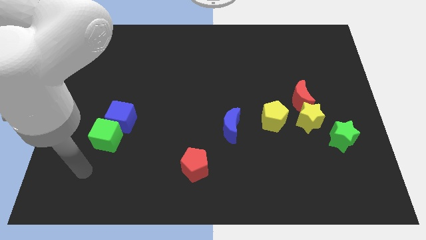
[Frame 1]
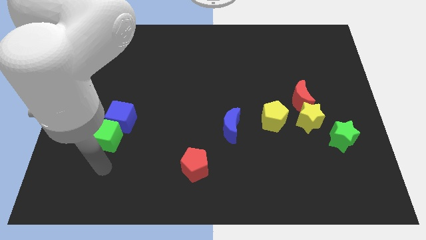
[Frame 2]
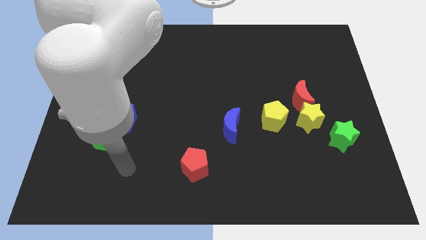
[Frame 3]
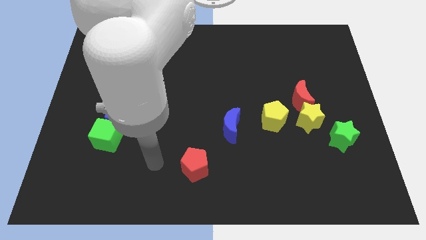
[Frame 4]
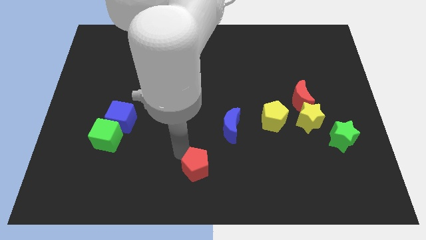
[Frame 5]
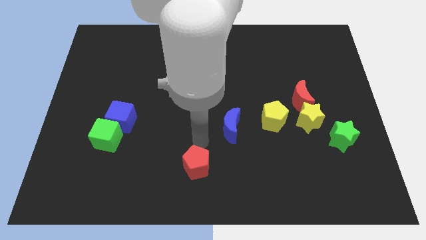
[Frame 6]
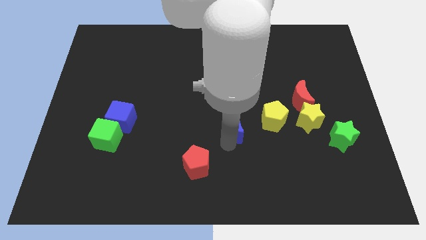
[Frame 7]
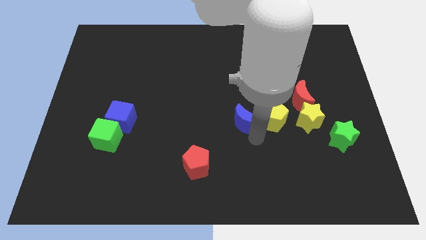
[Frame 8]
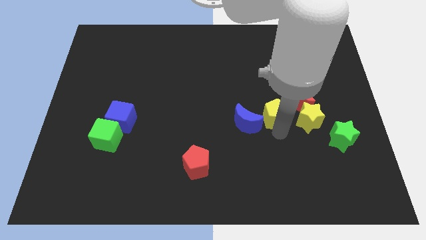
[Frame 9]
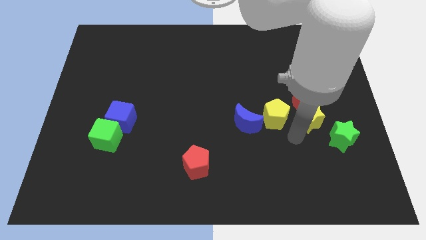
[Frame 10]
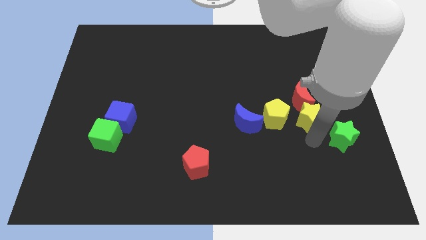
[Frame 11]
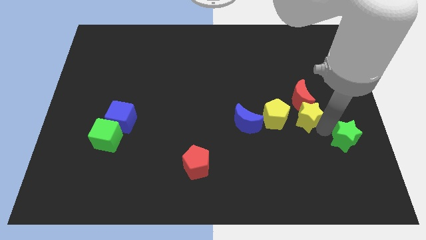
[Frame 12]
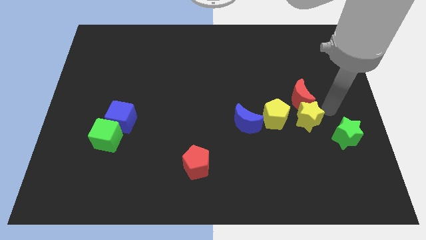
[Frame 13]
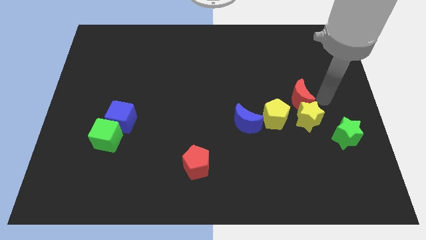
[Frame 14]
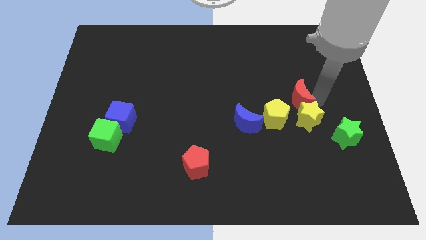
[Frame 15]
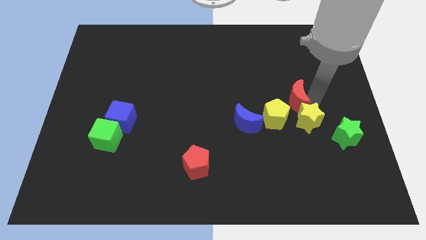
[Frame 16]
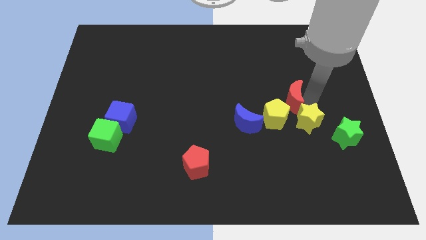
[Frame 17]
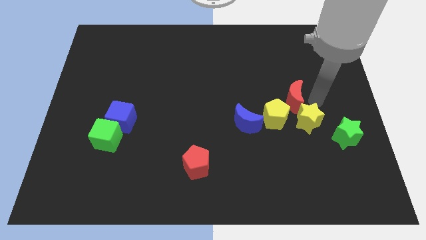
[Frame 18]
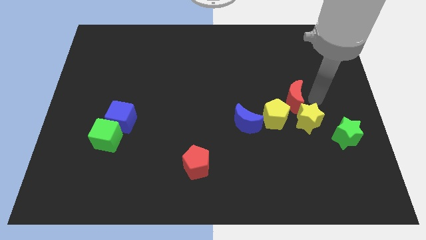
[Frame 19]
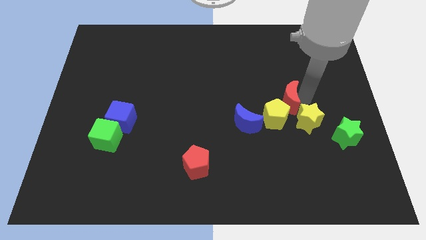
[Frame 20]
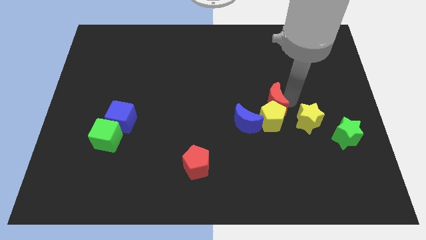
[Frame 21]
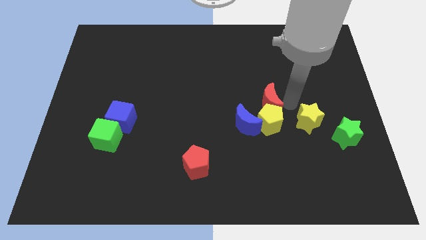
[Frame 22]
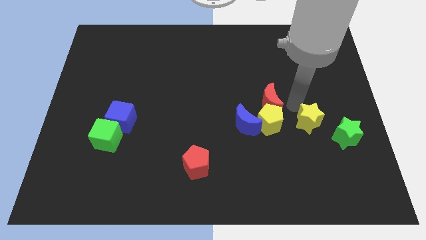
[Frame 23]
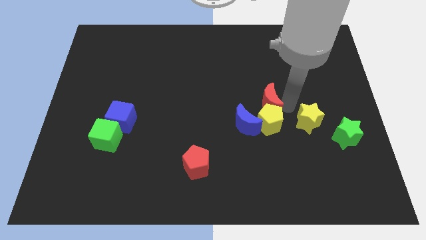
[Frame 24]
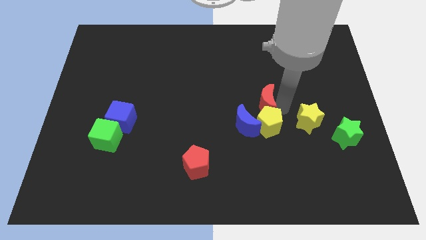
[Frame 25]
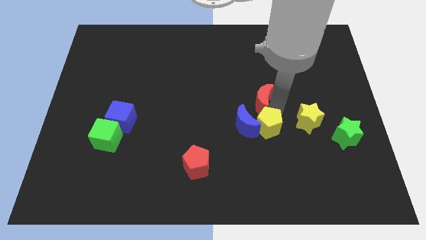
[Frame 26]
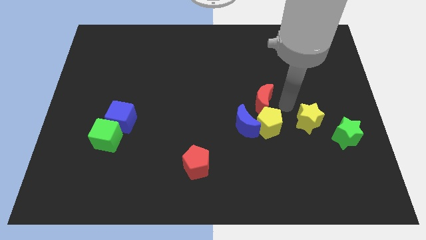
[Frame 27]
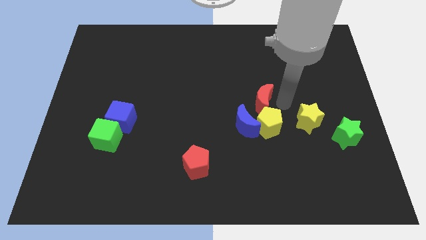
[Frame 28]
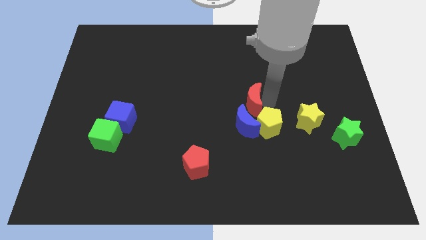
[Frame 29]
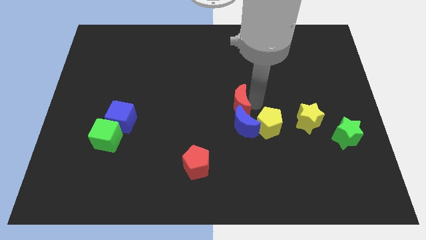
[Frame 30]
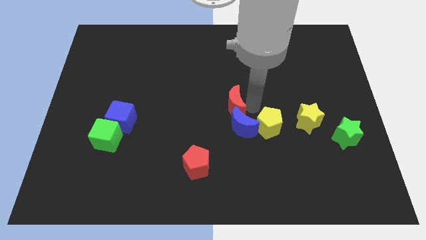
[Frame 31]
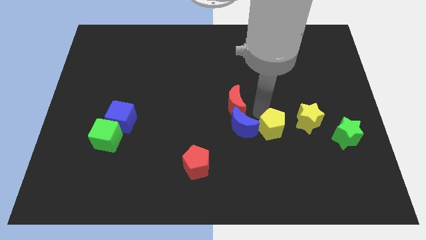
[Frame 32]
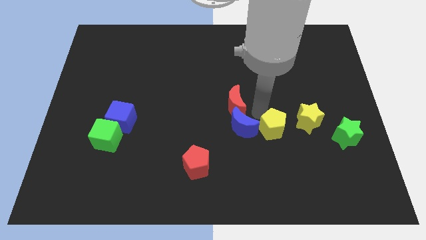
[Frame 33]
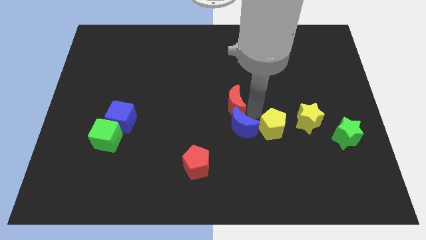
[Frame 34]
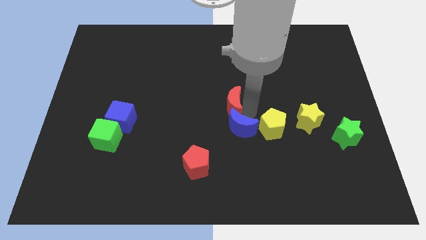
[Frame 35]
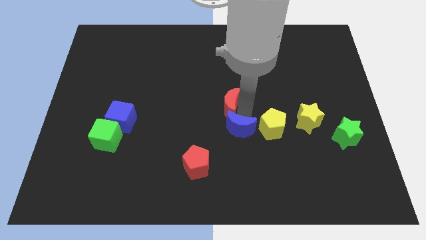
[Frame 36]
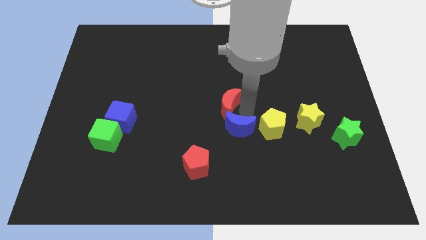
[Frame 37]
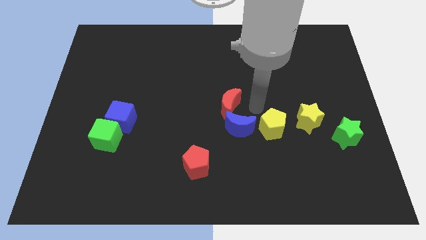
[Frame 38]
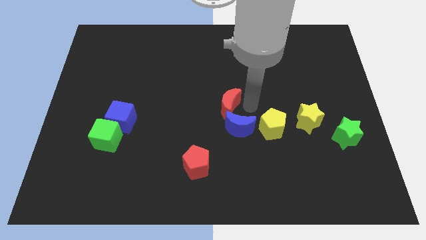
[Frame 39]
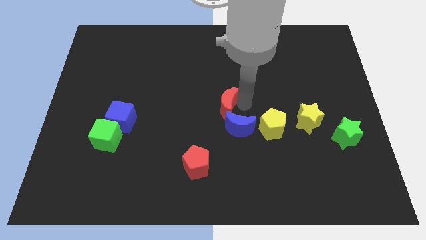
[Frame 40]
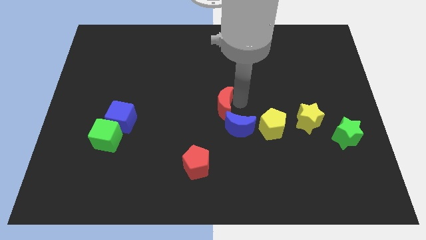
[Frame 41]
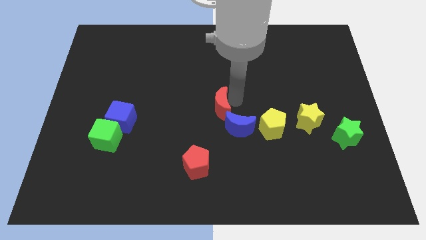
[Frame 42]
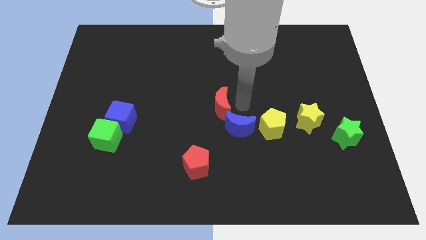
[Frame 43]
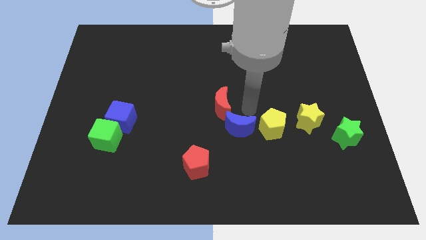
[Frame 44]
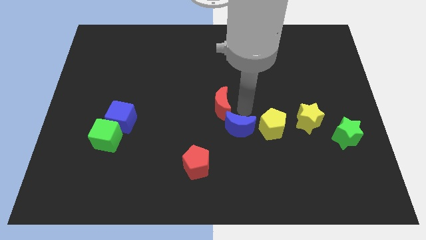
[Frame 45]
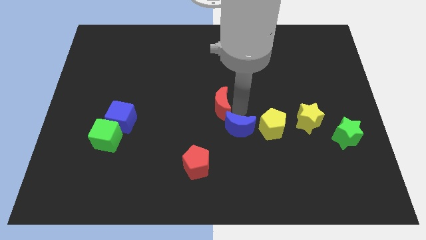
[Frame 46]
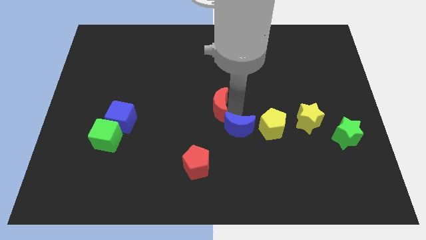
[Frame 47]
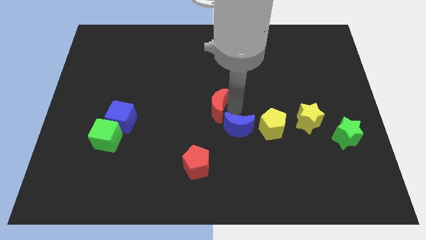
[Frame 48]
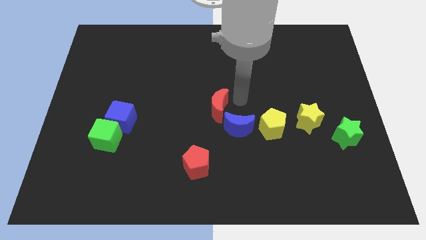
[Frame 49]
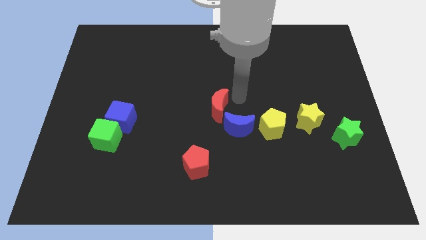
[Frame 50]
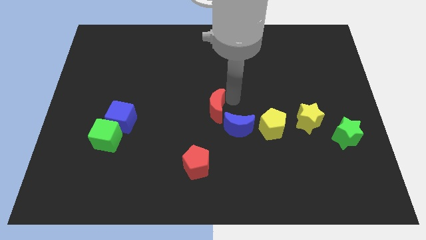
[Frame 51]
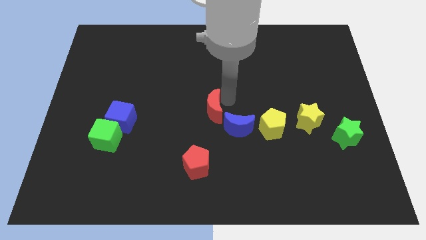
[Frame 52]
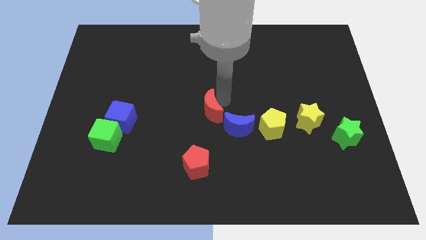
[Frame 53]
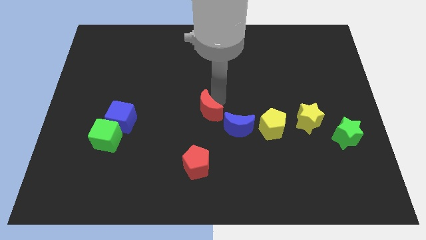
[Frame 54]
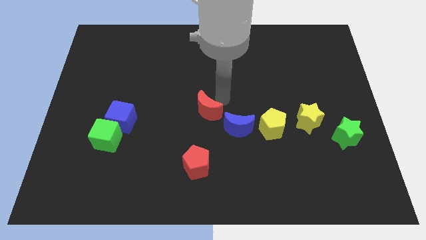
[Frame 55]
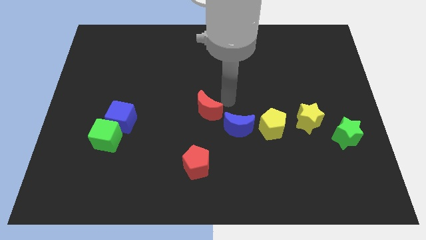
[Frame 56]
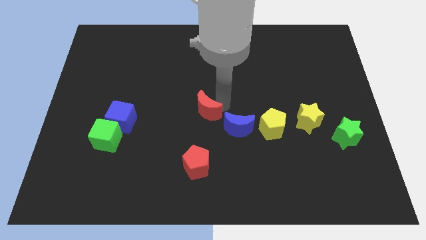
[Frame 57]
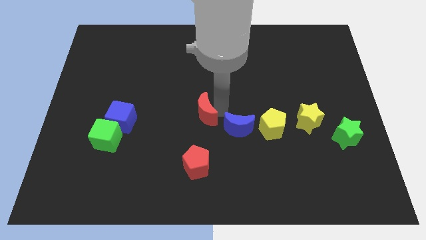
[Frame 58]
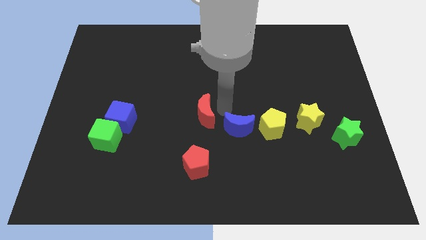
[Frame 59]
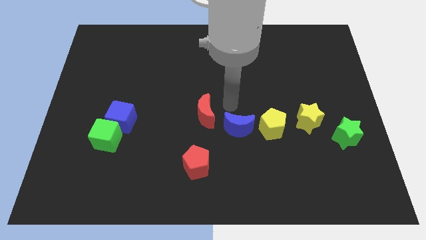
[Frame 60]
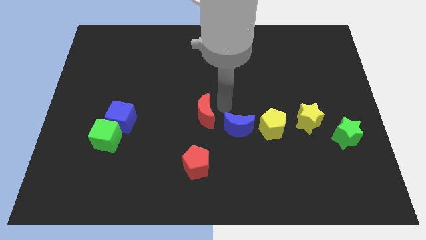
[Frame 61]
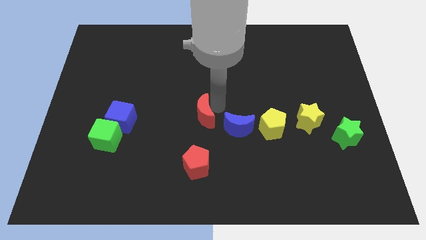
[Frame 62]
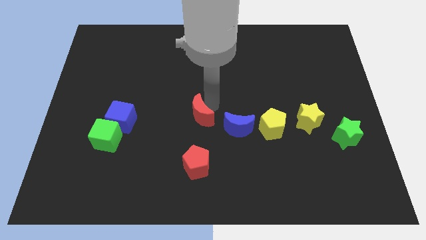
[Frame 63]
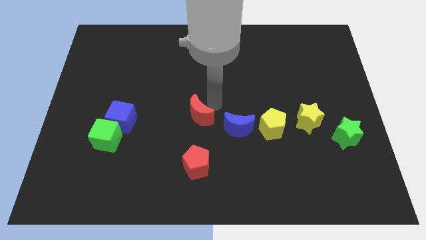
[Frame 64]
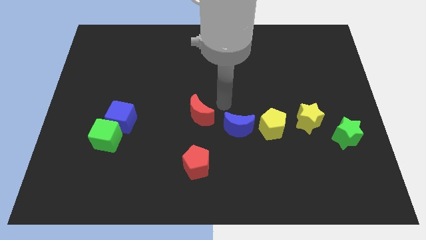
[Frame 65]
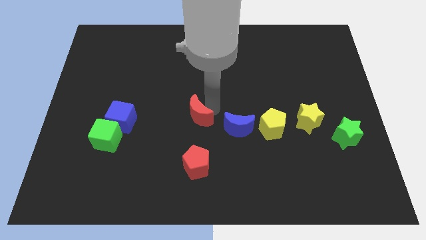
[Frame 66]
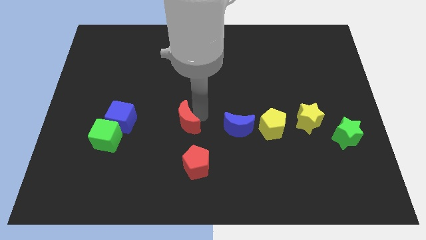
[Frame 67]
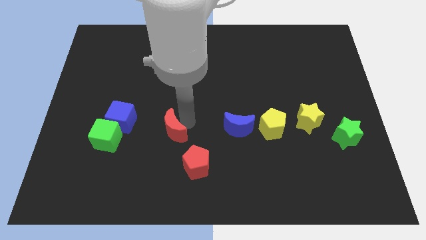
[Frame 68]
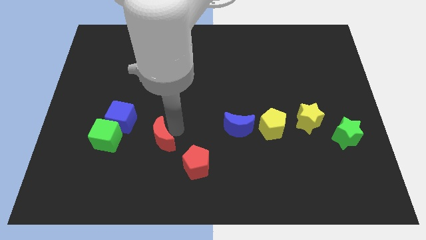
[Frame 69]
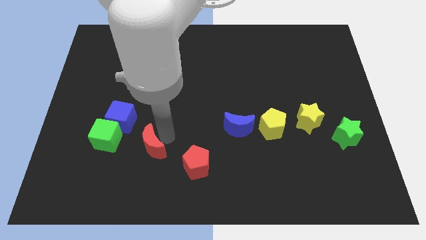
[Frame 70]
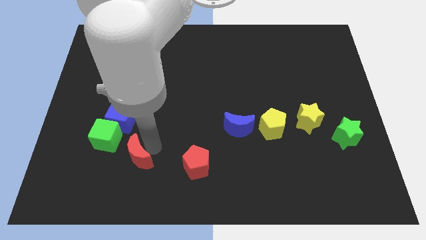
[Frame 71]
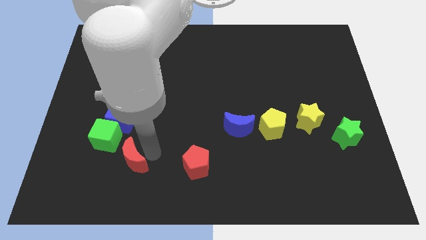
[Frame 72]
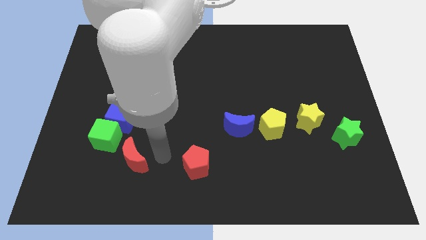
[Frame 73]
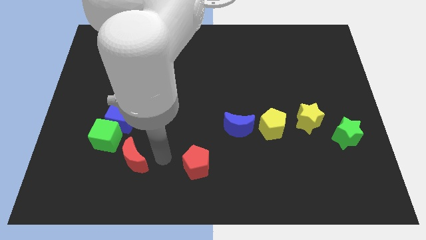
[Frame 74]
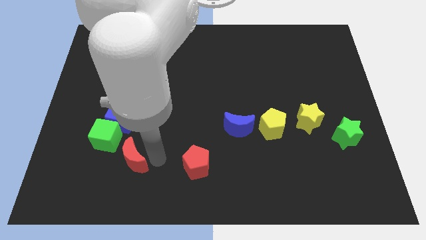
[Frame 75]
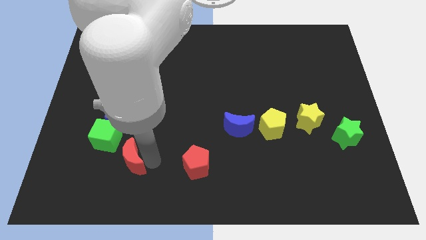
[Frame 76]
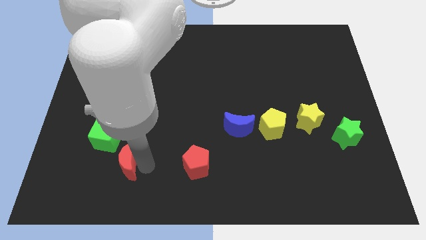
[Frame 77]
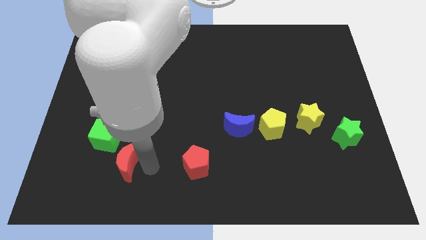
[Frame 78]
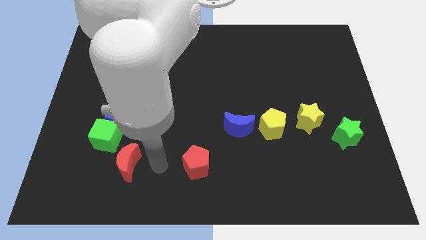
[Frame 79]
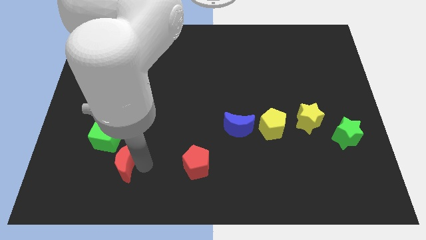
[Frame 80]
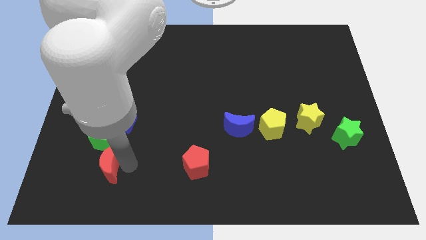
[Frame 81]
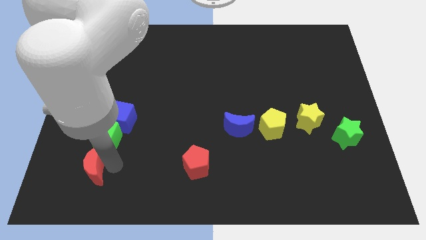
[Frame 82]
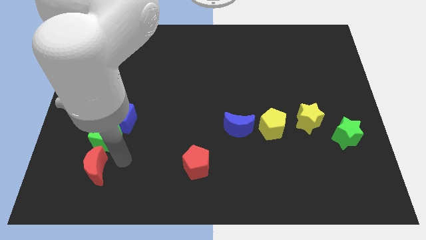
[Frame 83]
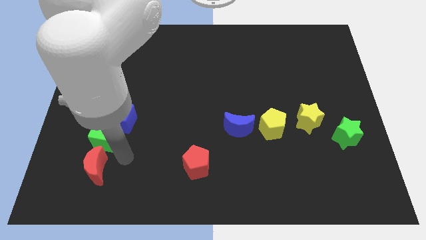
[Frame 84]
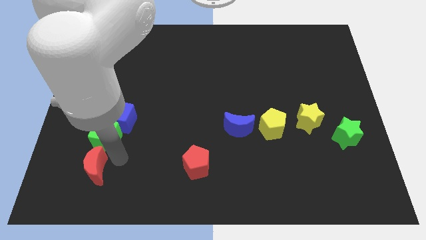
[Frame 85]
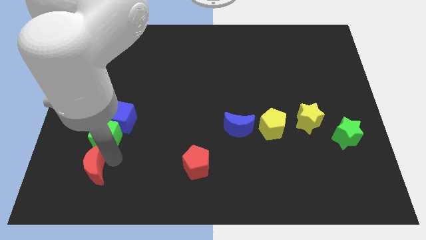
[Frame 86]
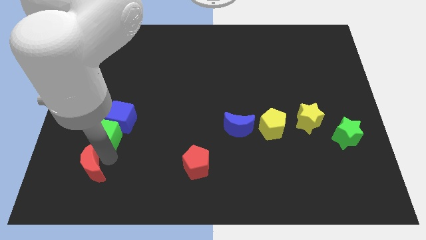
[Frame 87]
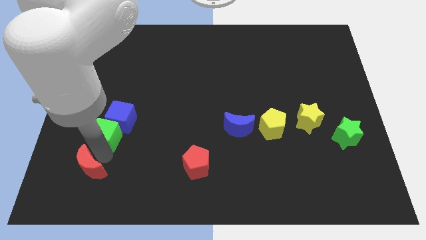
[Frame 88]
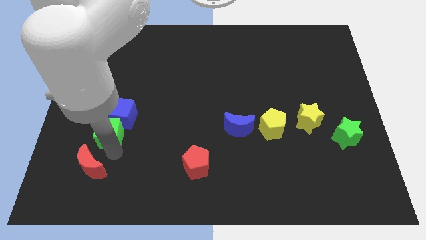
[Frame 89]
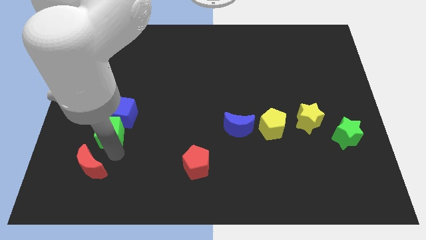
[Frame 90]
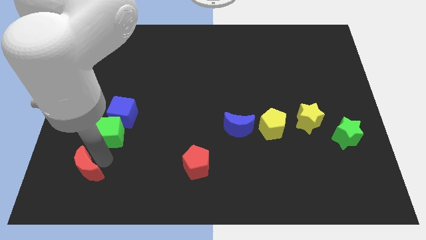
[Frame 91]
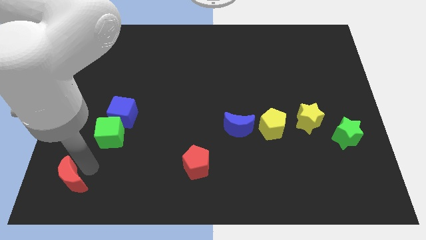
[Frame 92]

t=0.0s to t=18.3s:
push the red moon to the bottom left of the board
